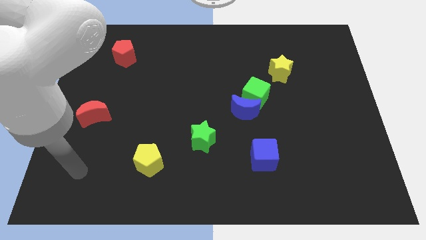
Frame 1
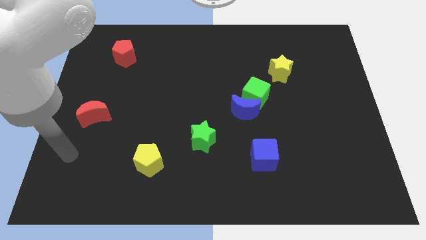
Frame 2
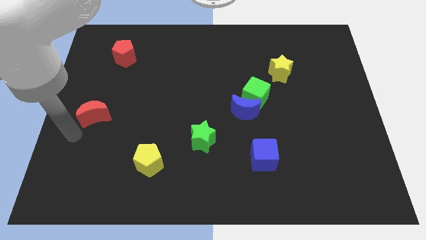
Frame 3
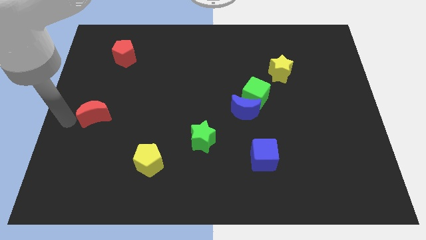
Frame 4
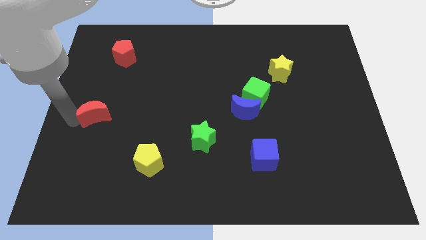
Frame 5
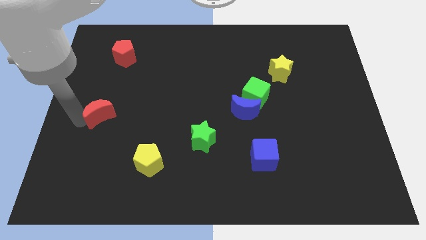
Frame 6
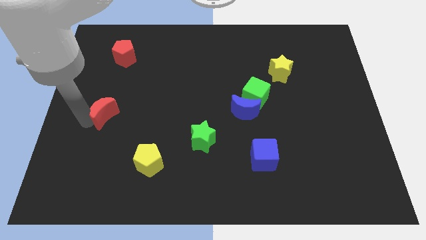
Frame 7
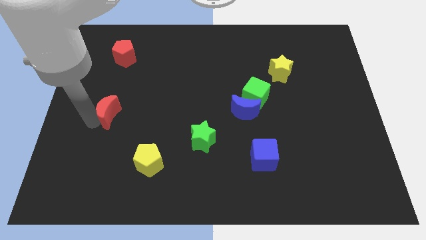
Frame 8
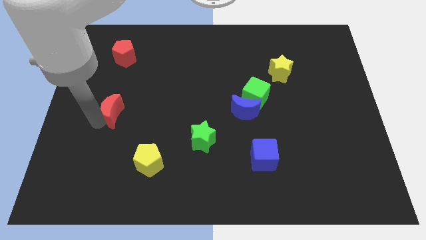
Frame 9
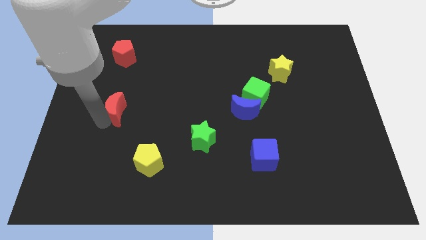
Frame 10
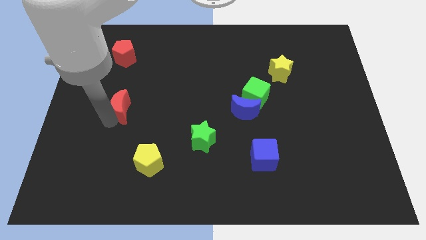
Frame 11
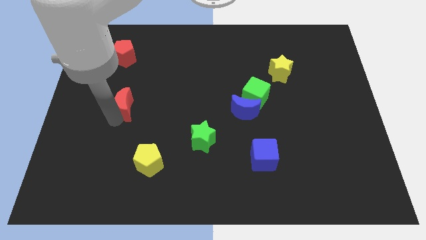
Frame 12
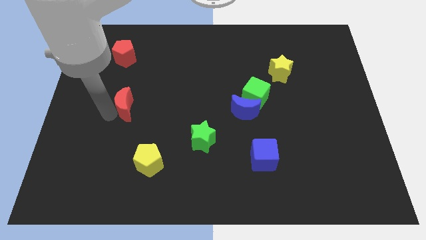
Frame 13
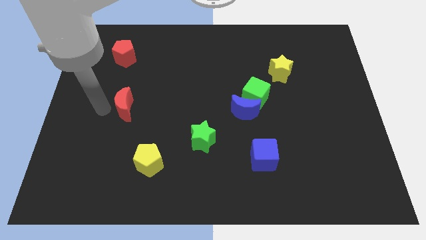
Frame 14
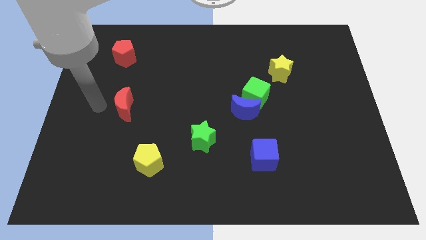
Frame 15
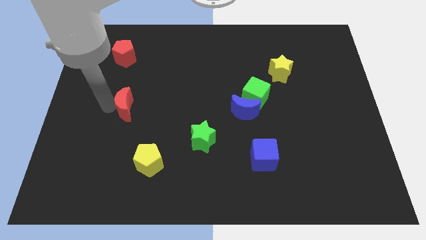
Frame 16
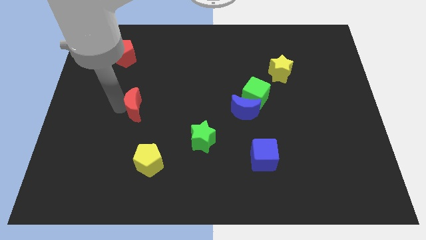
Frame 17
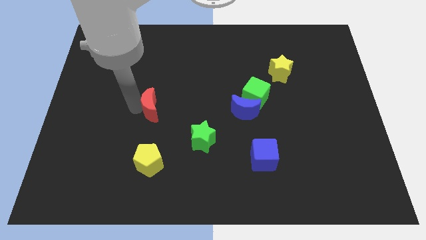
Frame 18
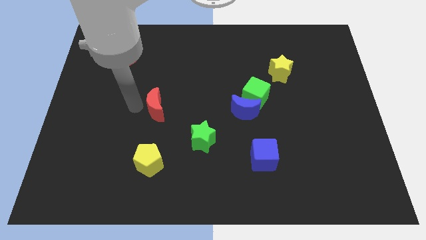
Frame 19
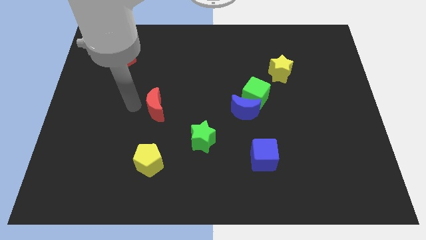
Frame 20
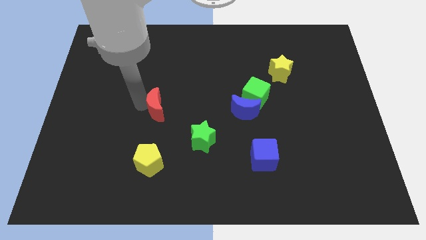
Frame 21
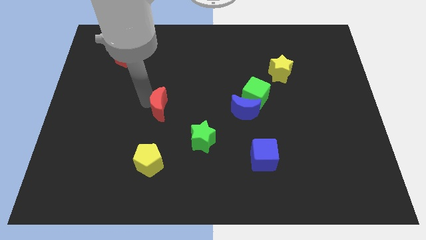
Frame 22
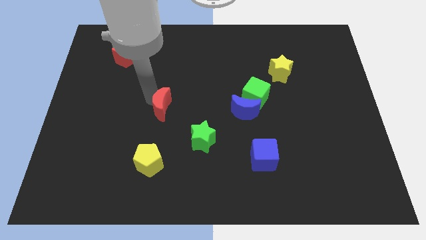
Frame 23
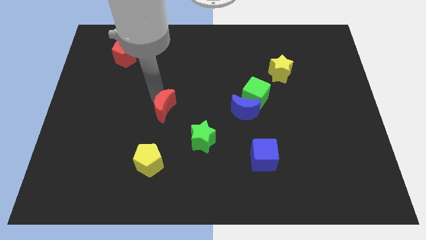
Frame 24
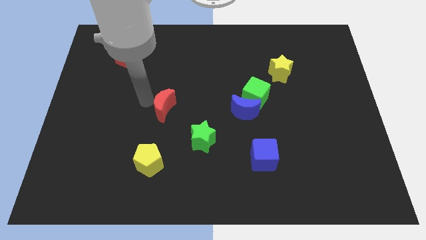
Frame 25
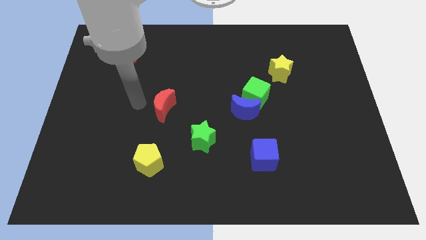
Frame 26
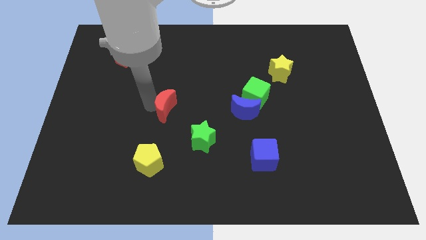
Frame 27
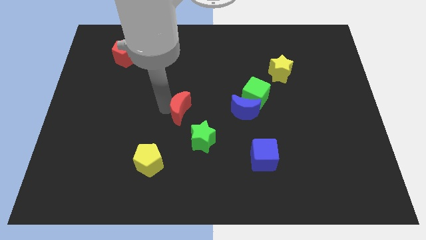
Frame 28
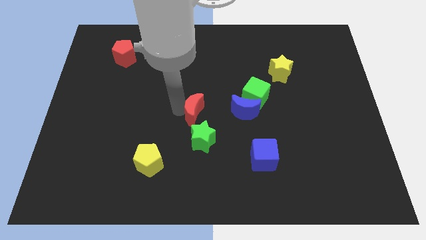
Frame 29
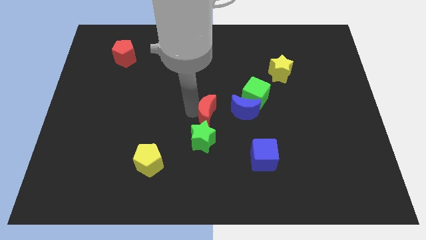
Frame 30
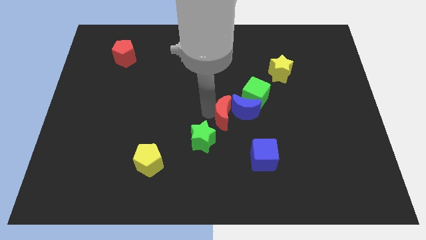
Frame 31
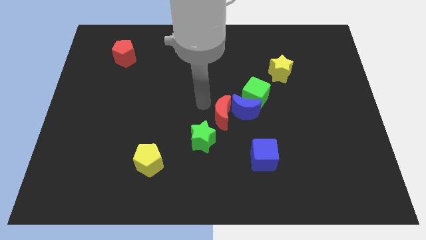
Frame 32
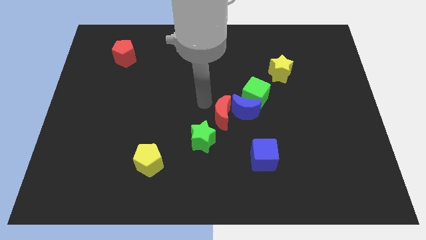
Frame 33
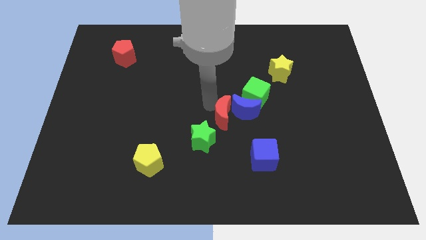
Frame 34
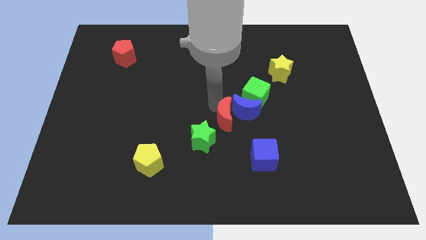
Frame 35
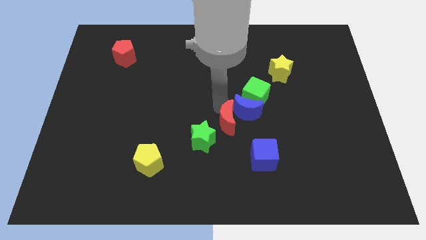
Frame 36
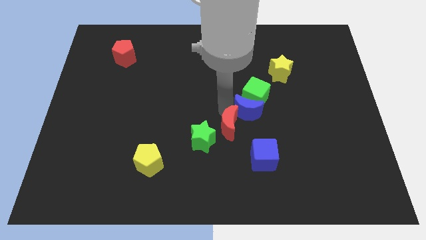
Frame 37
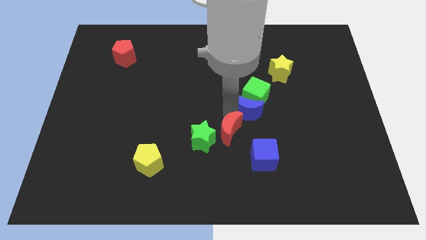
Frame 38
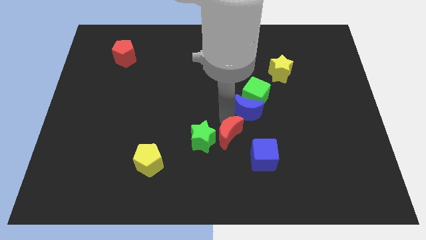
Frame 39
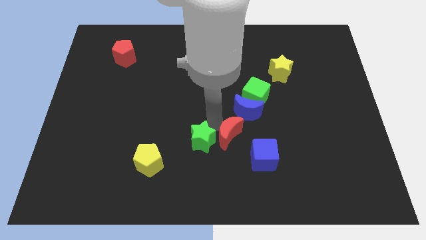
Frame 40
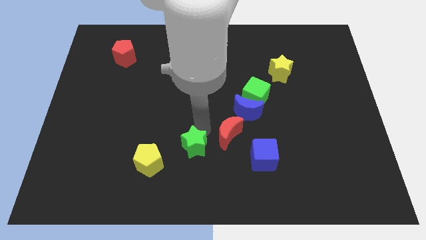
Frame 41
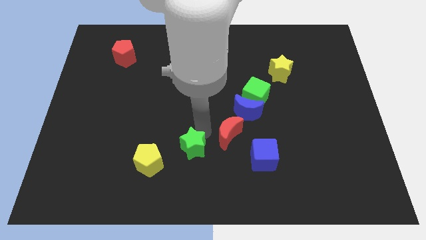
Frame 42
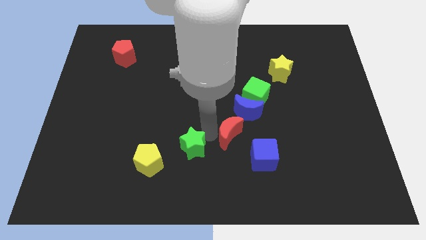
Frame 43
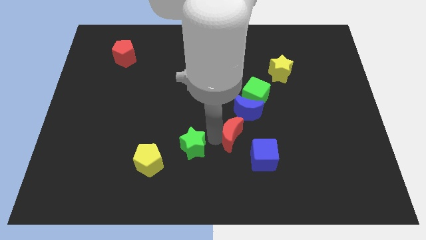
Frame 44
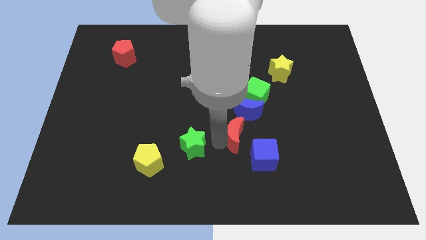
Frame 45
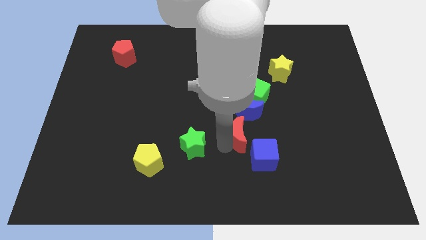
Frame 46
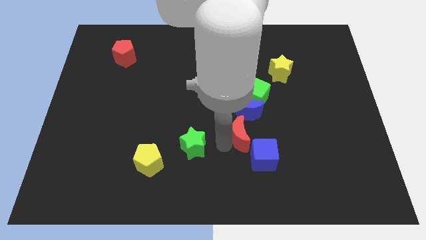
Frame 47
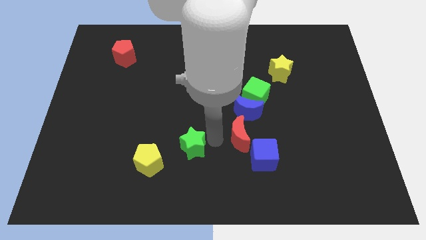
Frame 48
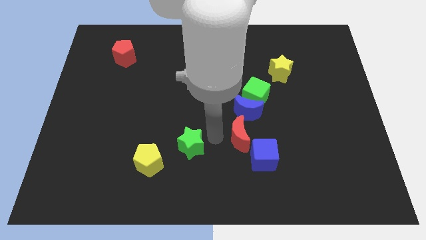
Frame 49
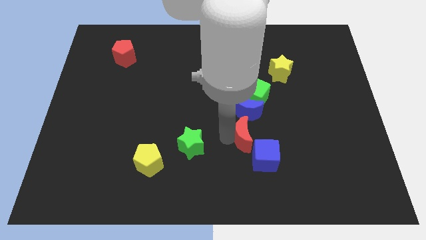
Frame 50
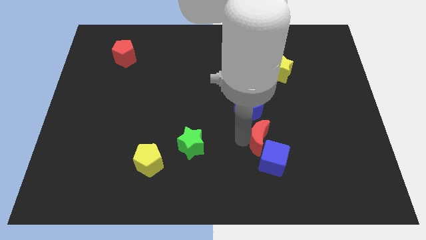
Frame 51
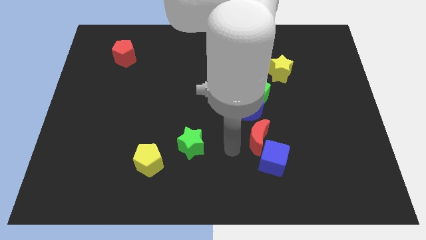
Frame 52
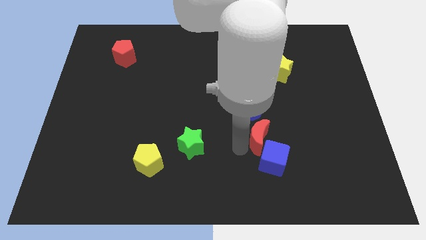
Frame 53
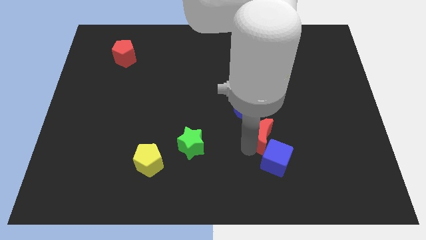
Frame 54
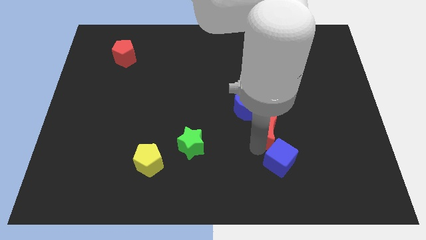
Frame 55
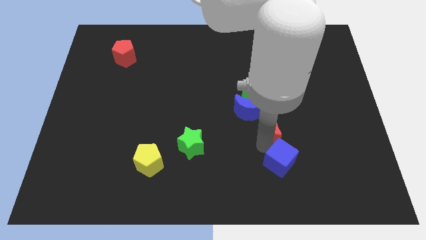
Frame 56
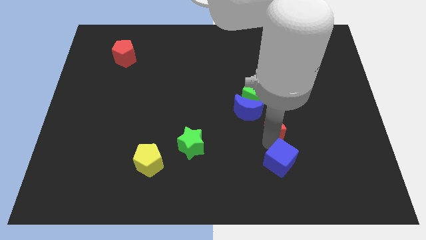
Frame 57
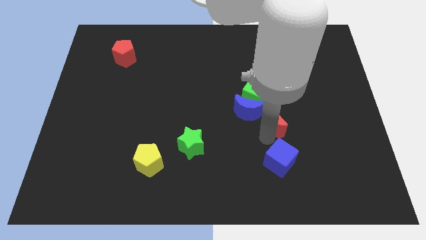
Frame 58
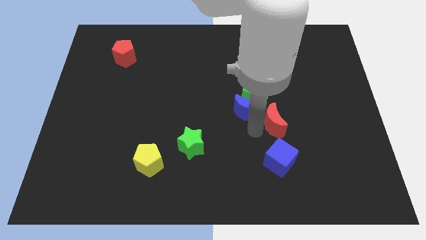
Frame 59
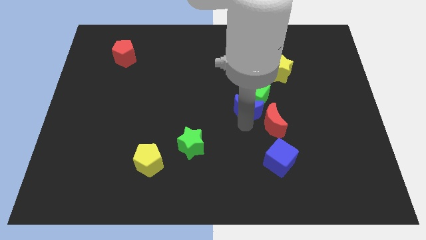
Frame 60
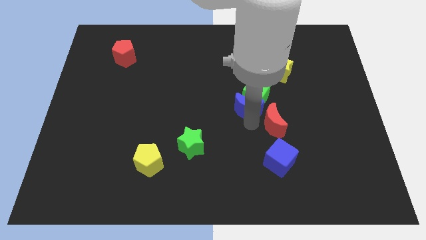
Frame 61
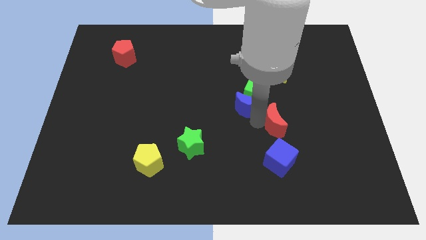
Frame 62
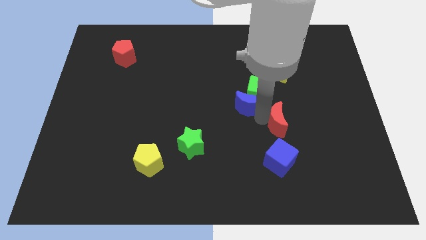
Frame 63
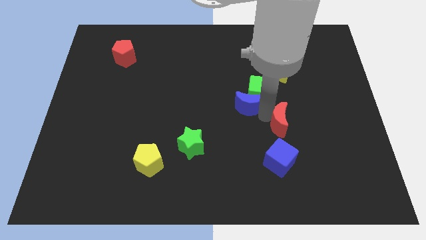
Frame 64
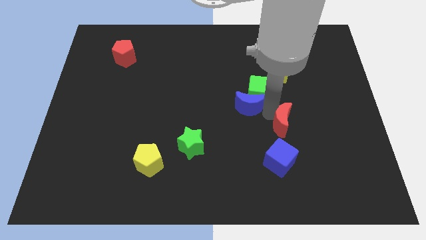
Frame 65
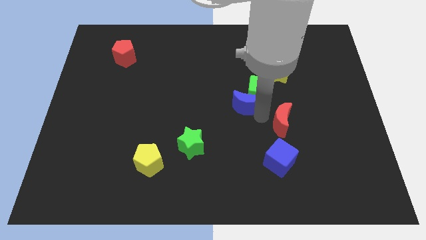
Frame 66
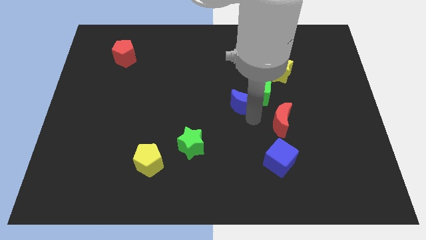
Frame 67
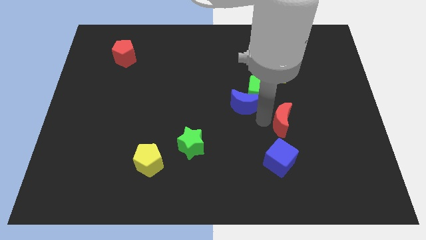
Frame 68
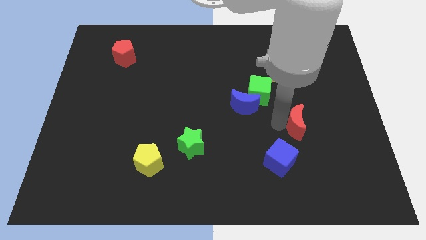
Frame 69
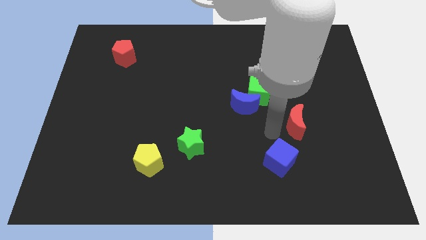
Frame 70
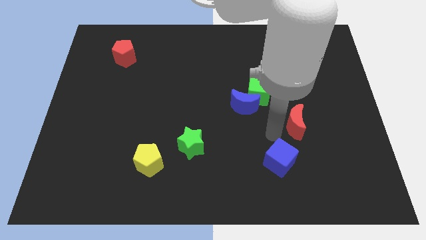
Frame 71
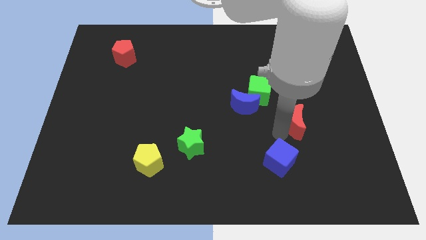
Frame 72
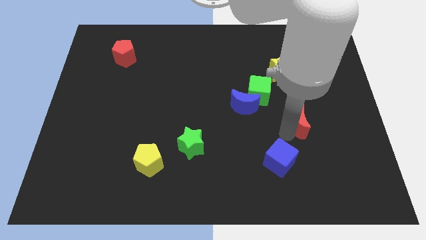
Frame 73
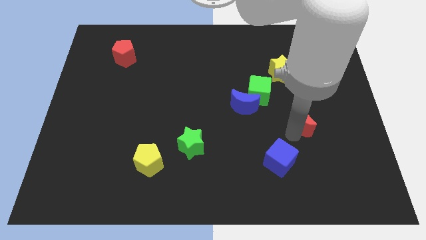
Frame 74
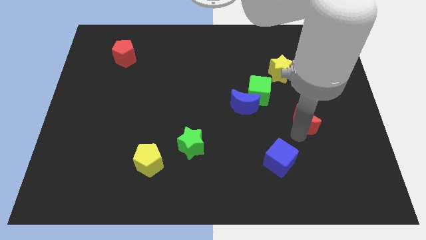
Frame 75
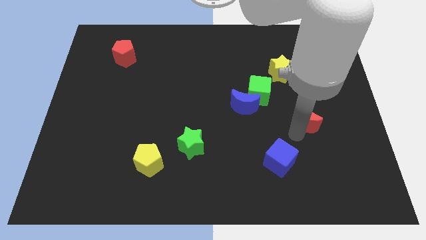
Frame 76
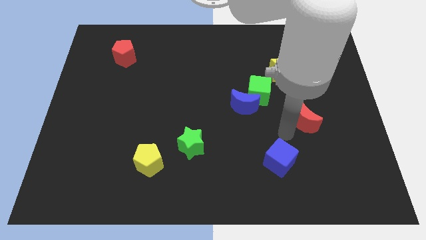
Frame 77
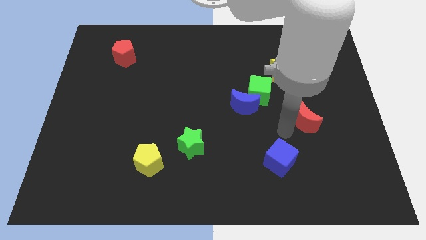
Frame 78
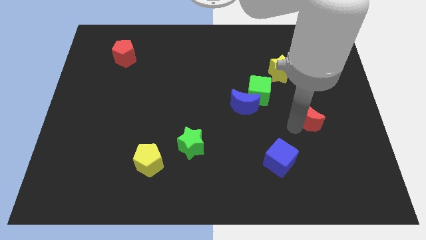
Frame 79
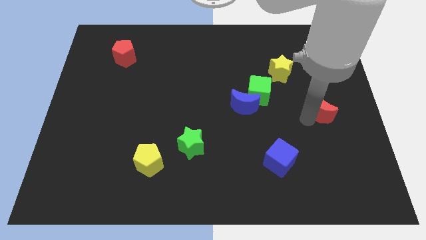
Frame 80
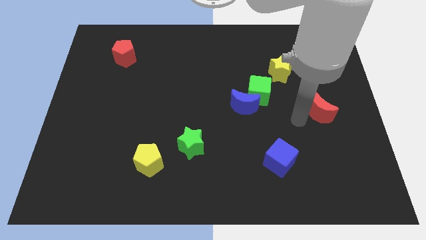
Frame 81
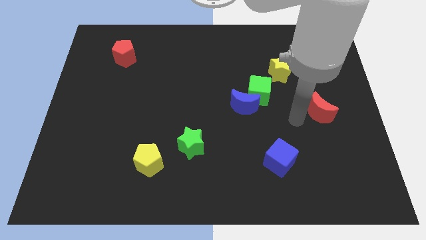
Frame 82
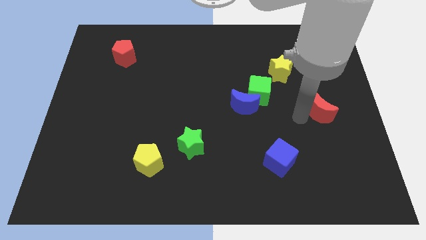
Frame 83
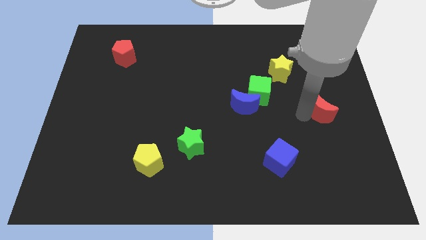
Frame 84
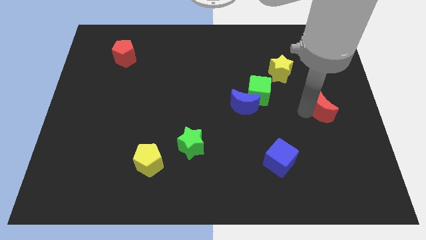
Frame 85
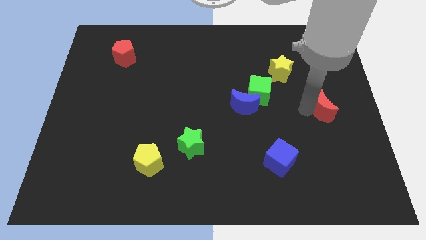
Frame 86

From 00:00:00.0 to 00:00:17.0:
put the red moon to the right side of the board
